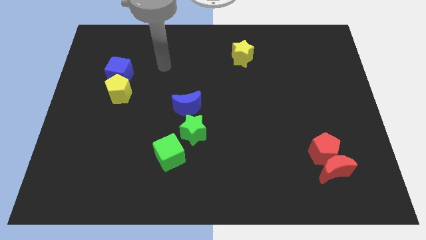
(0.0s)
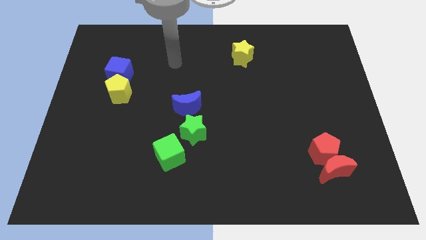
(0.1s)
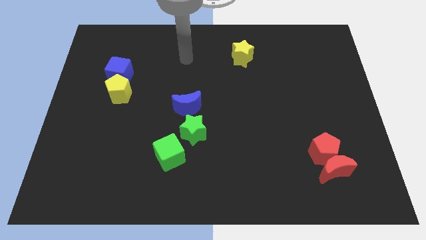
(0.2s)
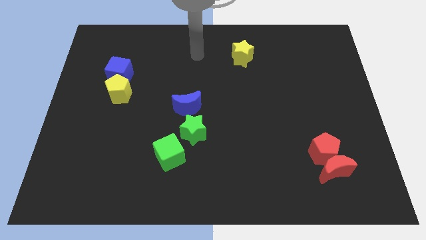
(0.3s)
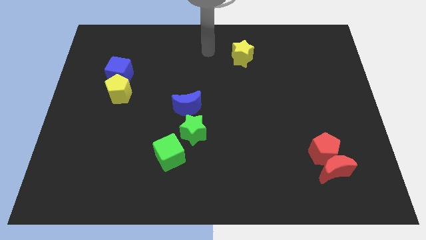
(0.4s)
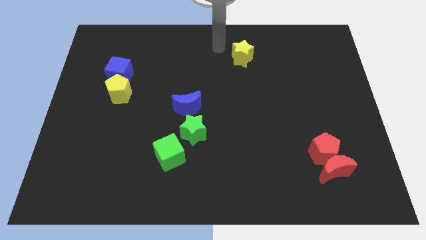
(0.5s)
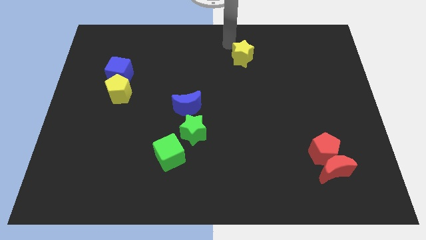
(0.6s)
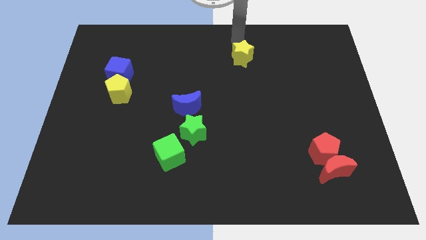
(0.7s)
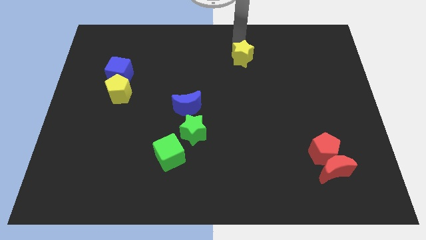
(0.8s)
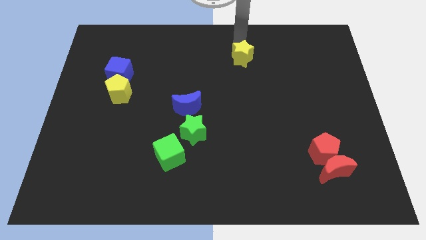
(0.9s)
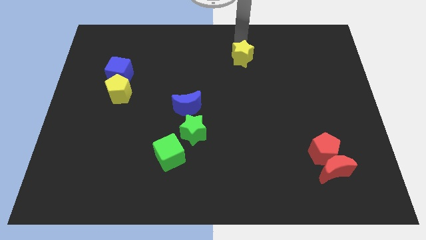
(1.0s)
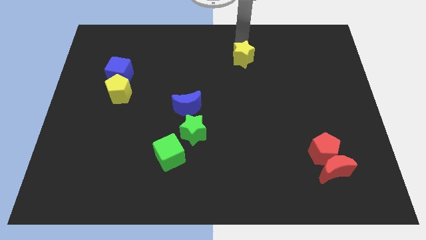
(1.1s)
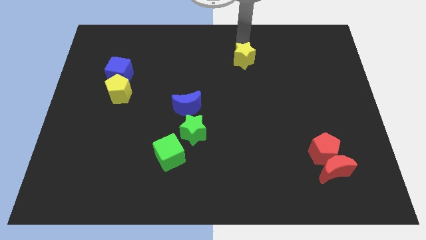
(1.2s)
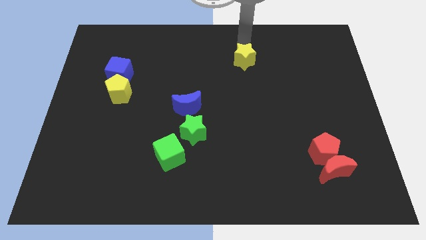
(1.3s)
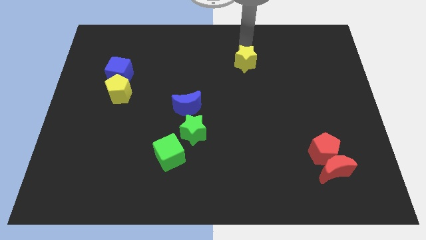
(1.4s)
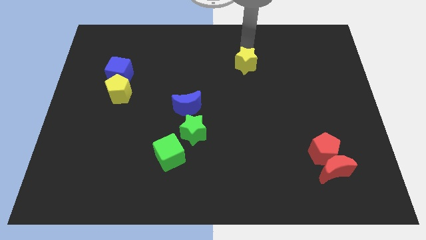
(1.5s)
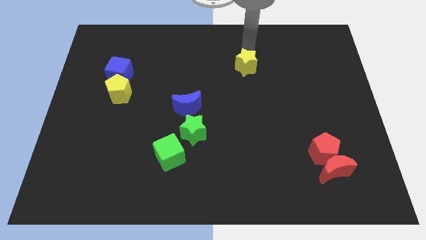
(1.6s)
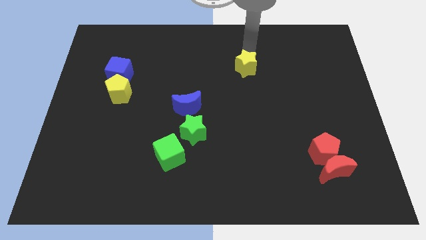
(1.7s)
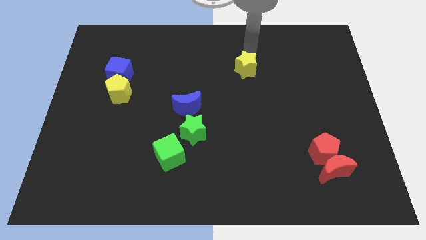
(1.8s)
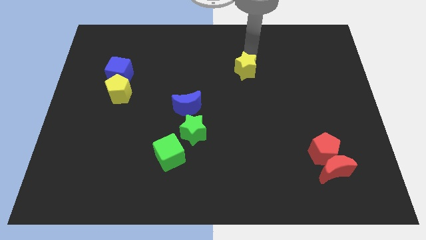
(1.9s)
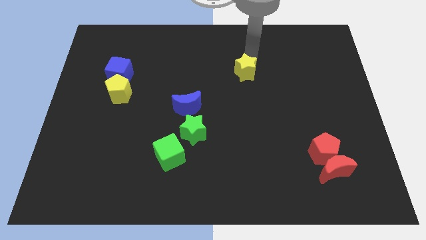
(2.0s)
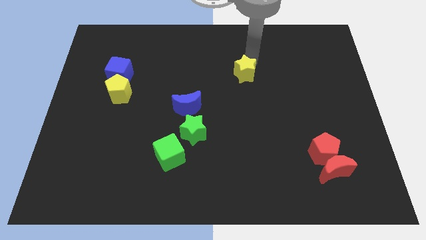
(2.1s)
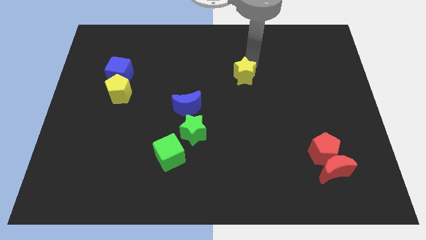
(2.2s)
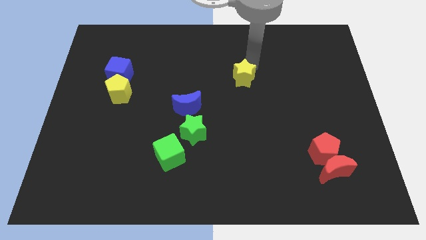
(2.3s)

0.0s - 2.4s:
slightly slide the yellow star down

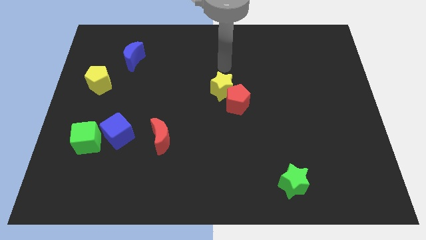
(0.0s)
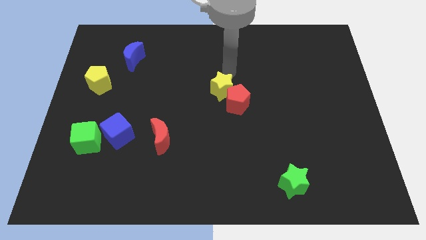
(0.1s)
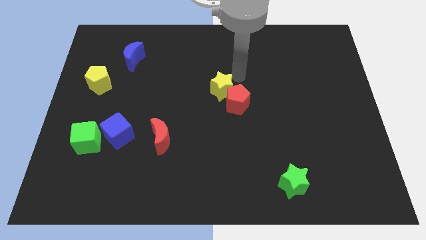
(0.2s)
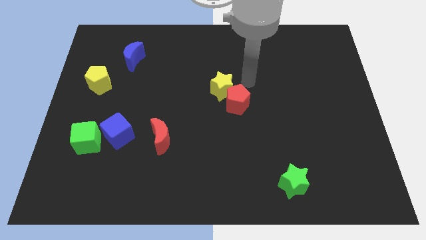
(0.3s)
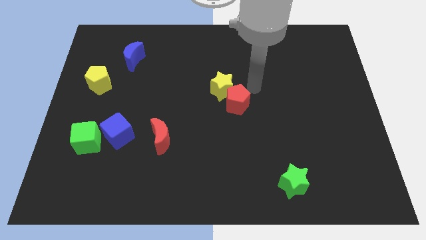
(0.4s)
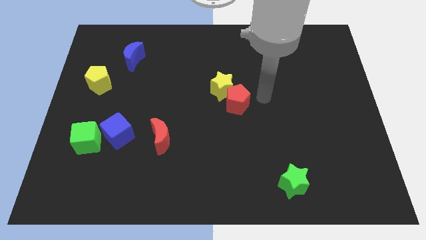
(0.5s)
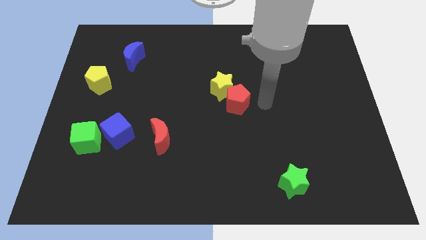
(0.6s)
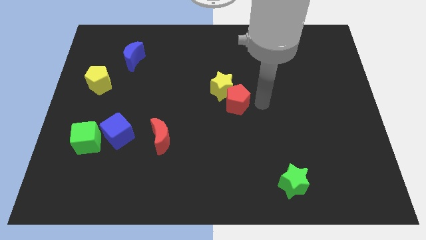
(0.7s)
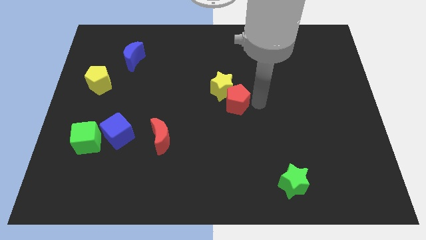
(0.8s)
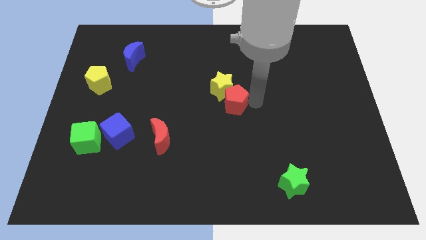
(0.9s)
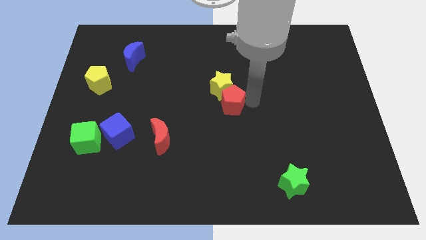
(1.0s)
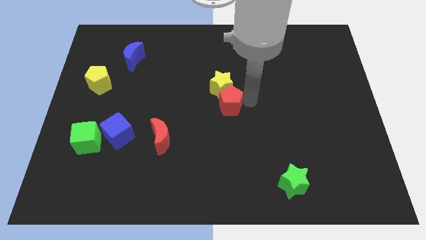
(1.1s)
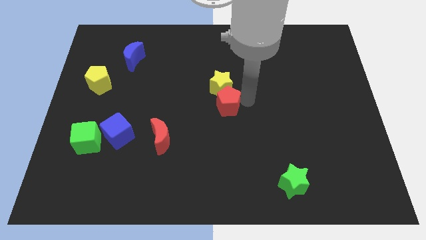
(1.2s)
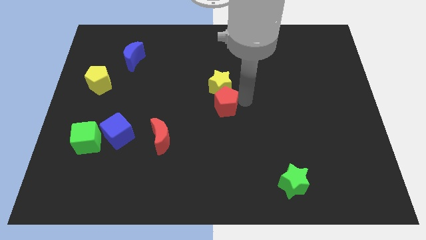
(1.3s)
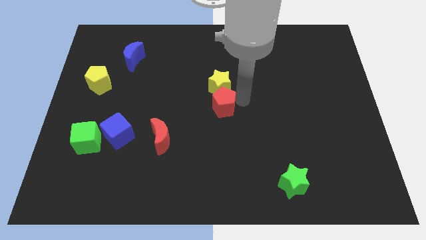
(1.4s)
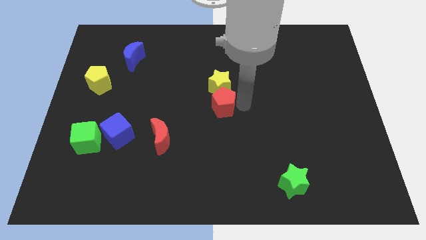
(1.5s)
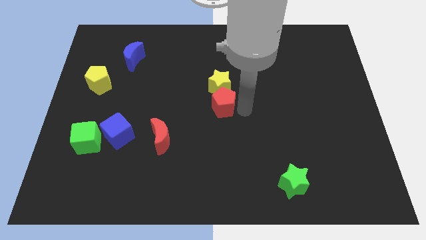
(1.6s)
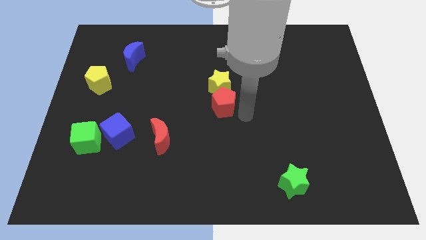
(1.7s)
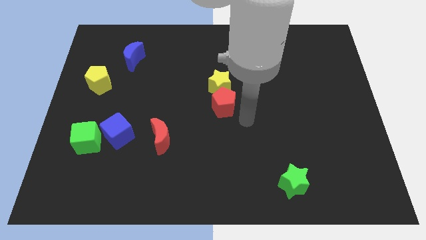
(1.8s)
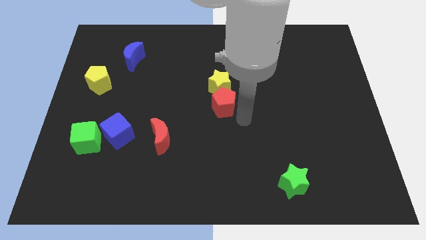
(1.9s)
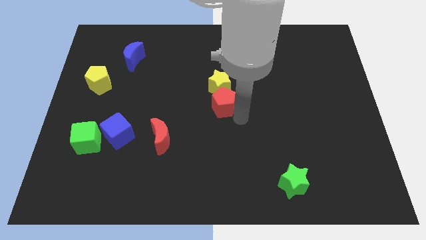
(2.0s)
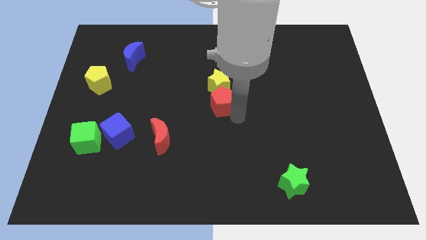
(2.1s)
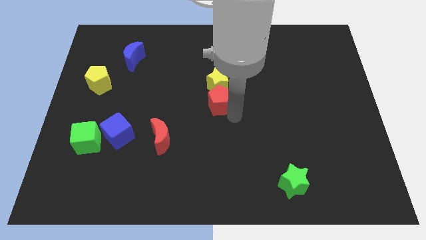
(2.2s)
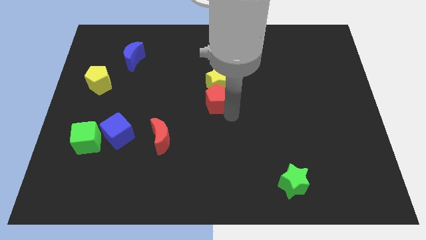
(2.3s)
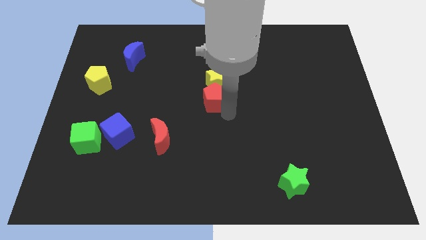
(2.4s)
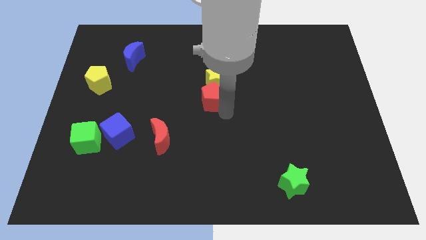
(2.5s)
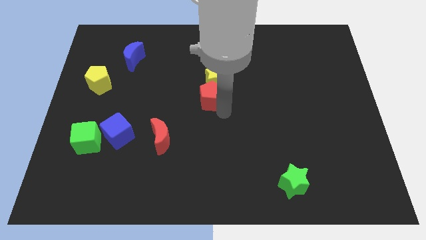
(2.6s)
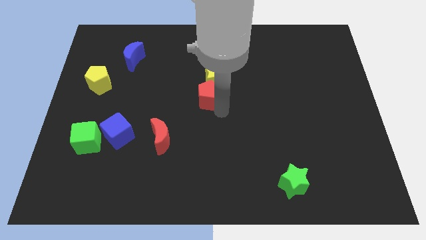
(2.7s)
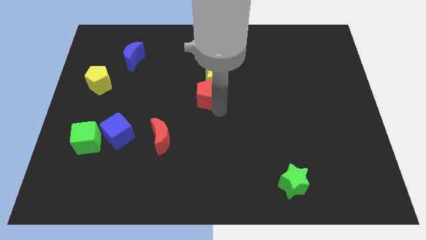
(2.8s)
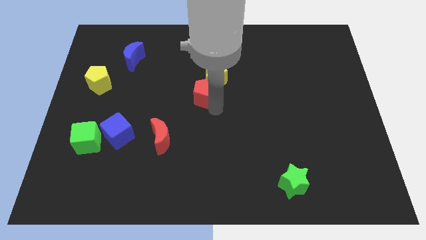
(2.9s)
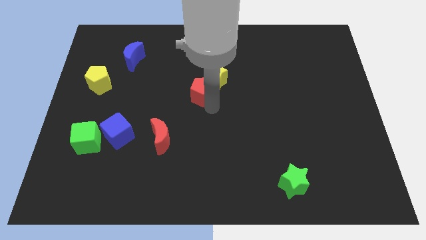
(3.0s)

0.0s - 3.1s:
move the red pentagon upwards and to the left slightly

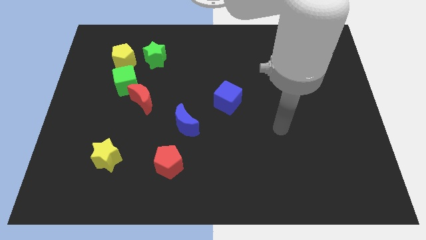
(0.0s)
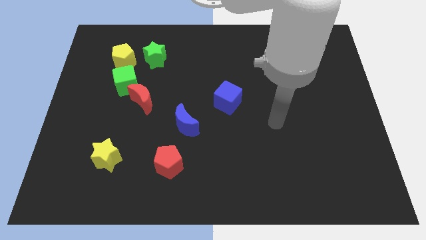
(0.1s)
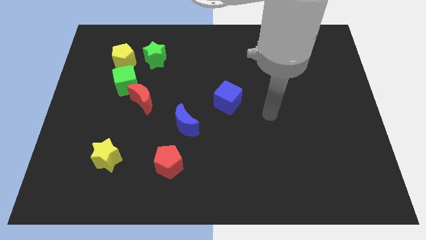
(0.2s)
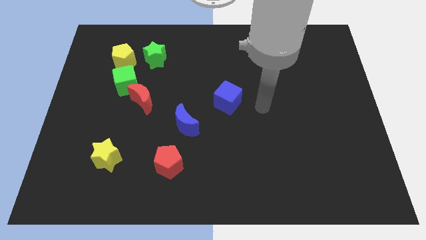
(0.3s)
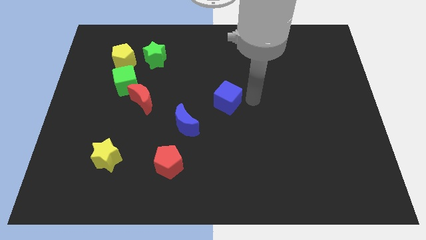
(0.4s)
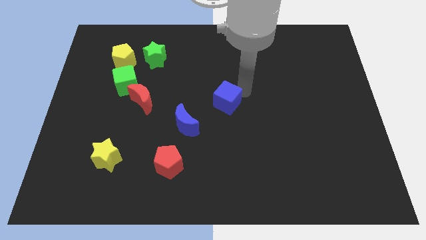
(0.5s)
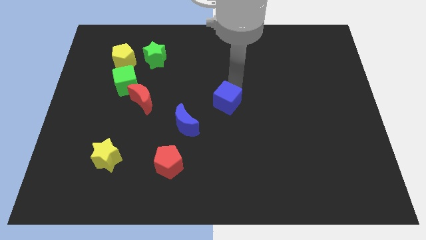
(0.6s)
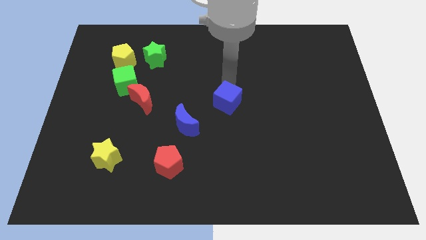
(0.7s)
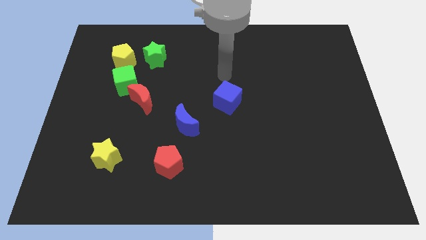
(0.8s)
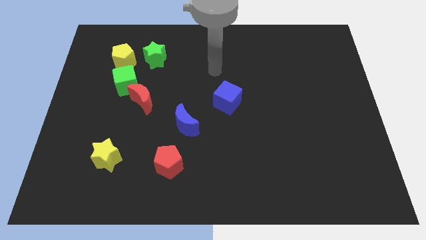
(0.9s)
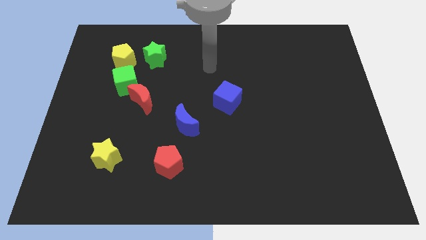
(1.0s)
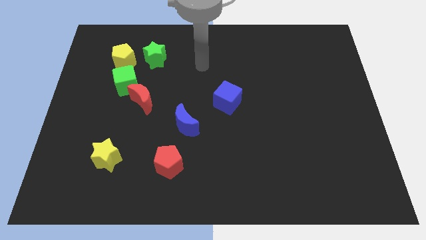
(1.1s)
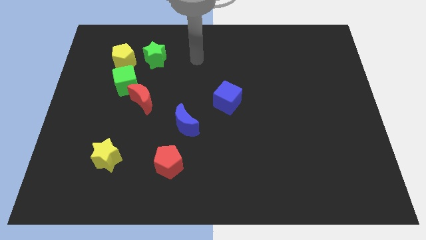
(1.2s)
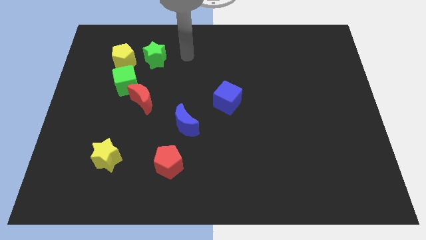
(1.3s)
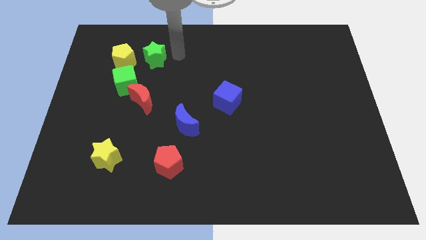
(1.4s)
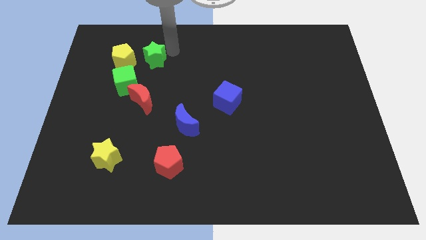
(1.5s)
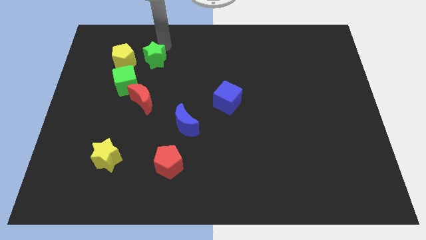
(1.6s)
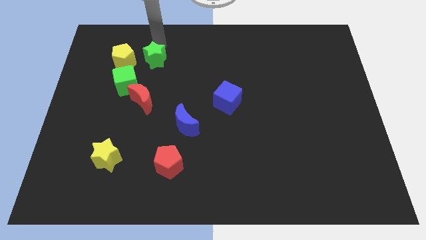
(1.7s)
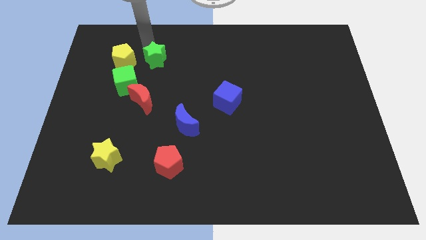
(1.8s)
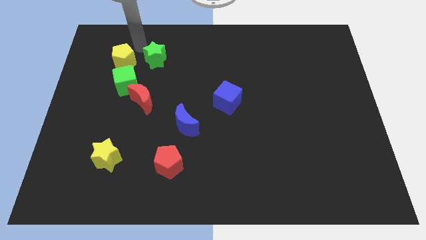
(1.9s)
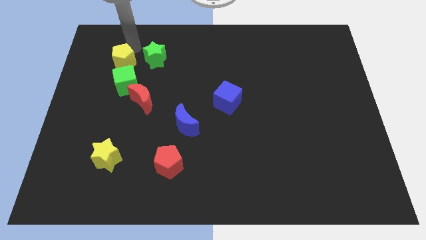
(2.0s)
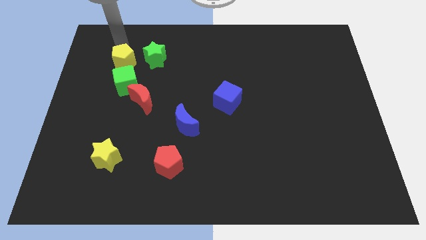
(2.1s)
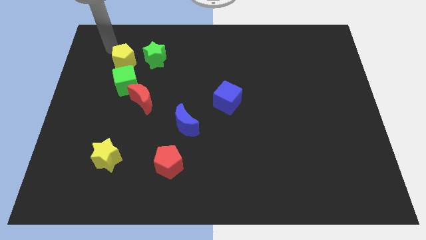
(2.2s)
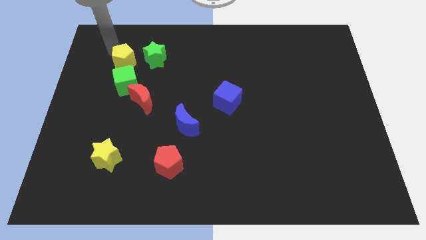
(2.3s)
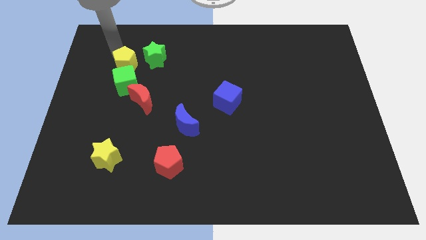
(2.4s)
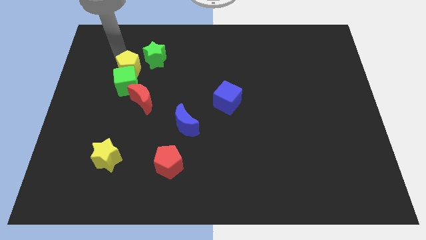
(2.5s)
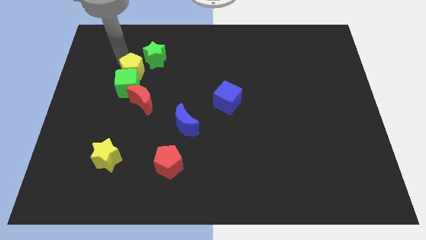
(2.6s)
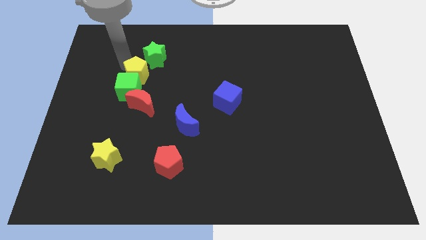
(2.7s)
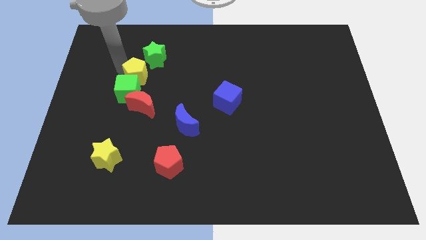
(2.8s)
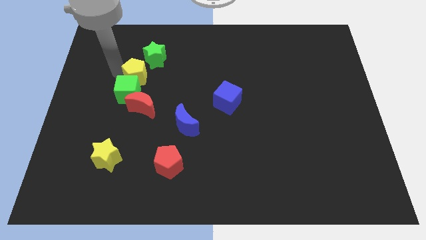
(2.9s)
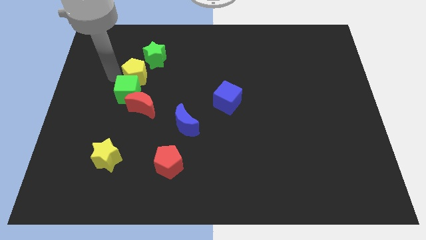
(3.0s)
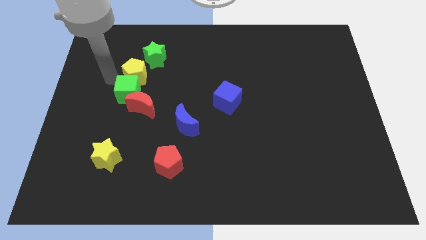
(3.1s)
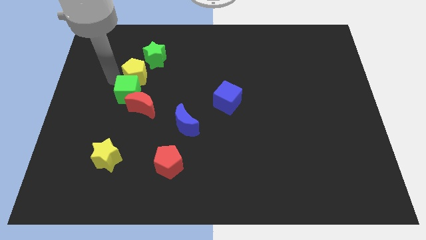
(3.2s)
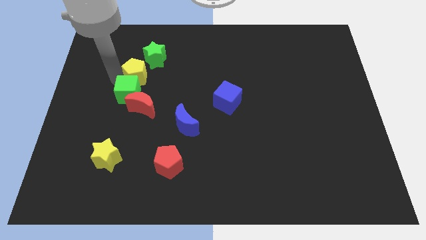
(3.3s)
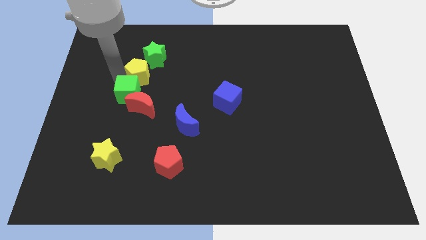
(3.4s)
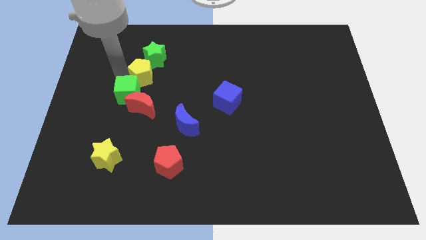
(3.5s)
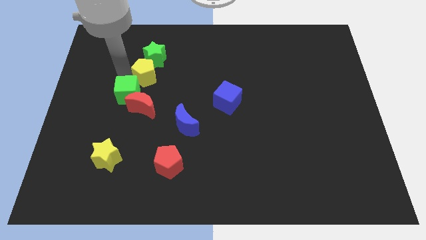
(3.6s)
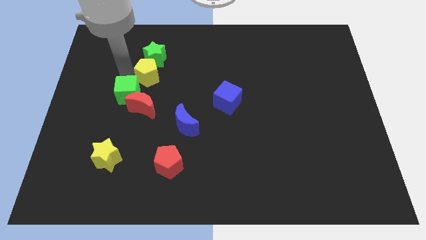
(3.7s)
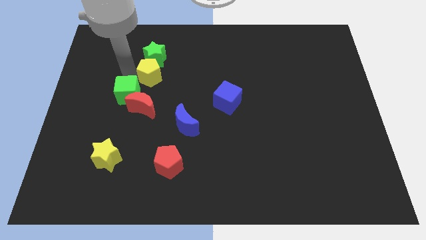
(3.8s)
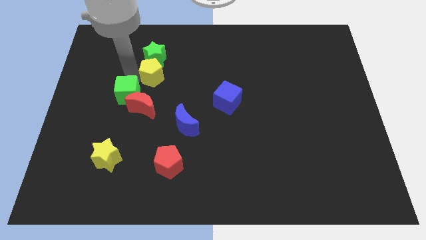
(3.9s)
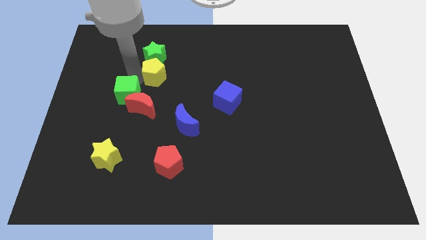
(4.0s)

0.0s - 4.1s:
push the yellow pentagon right a little
